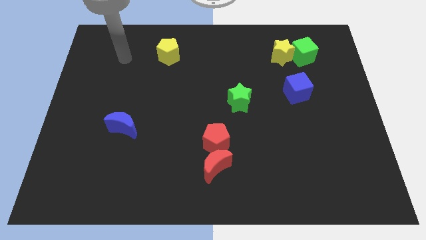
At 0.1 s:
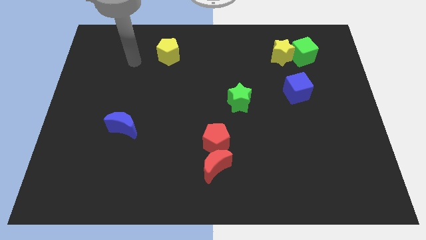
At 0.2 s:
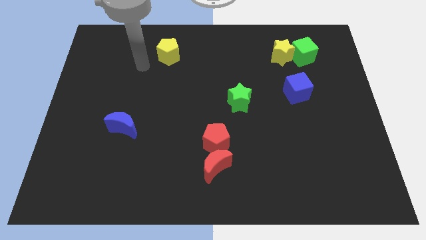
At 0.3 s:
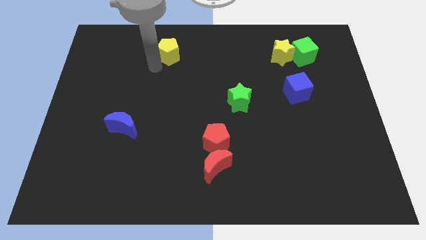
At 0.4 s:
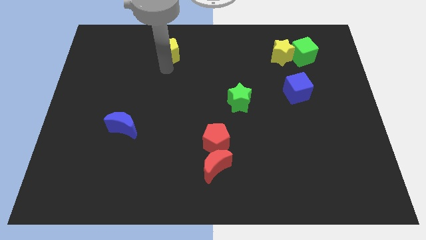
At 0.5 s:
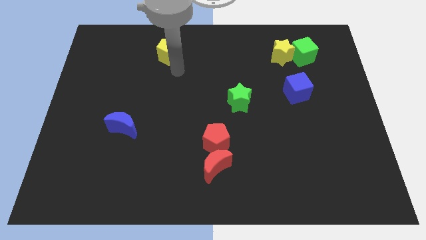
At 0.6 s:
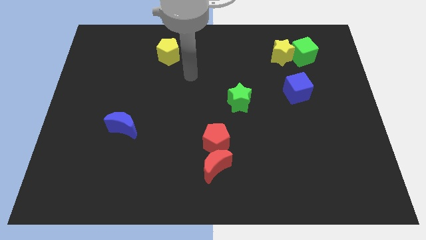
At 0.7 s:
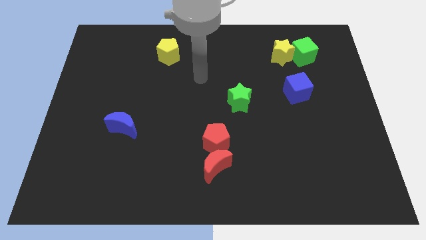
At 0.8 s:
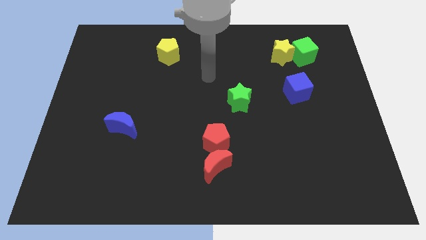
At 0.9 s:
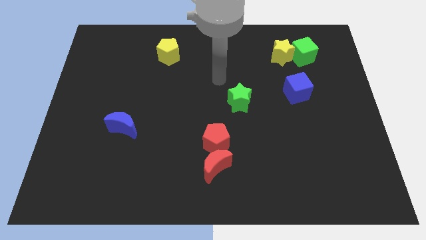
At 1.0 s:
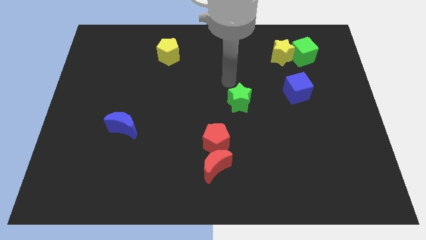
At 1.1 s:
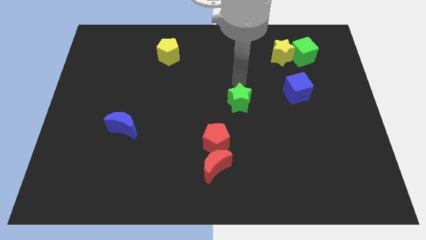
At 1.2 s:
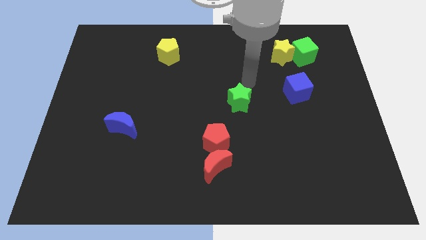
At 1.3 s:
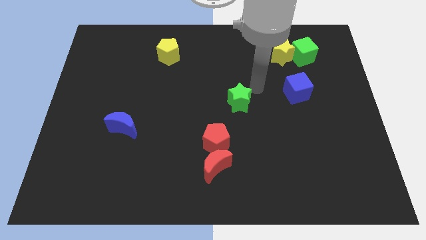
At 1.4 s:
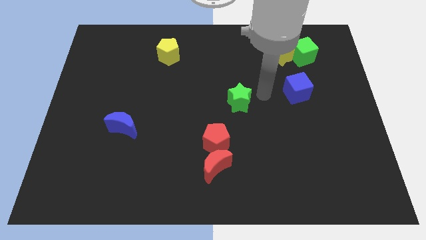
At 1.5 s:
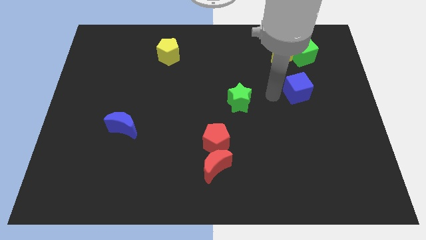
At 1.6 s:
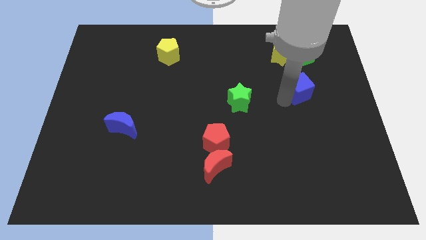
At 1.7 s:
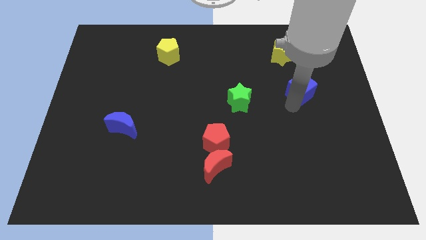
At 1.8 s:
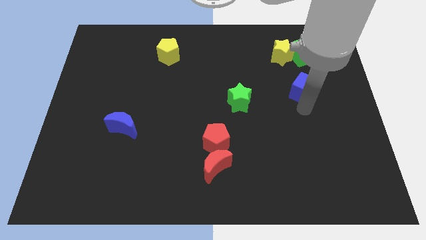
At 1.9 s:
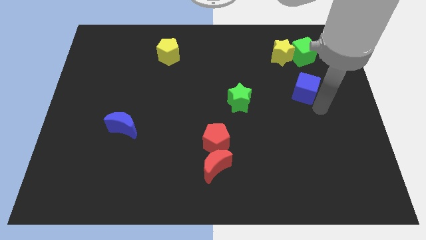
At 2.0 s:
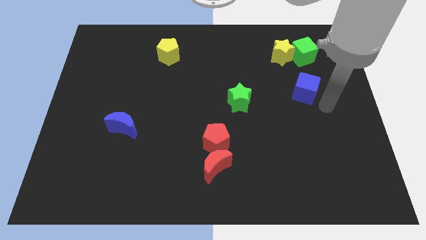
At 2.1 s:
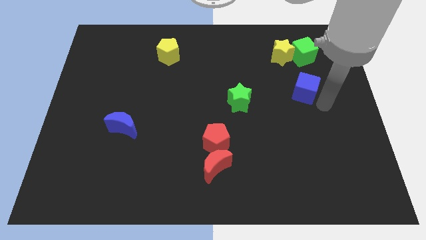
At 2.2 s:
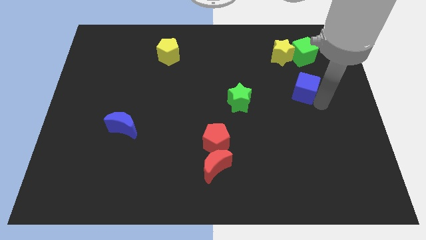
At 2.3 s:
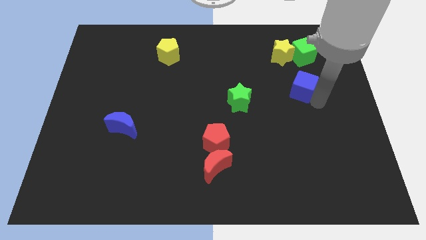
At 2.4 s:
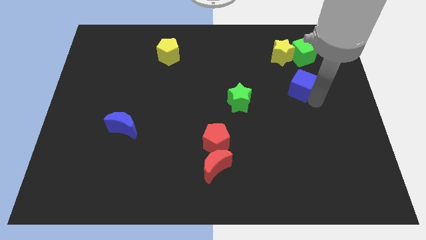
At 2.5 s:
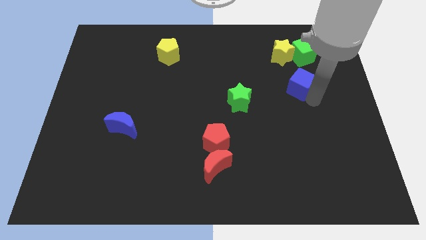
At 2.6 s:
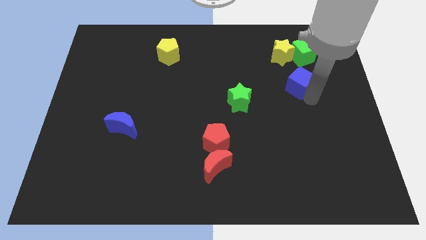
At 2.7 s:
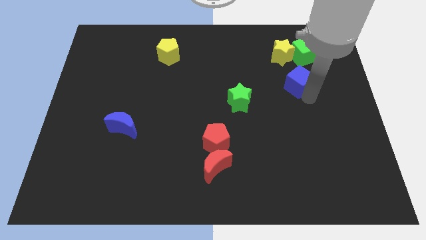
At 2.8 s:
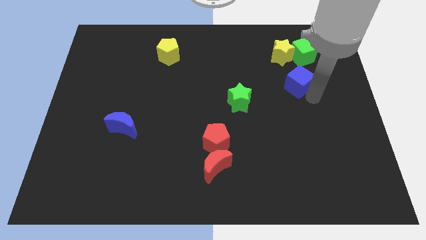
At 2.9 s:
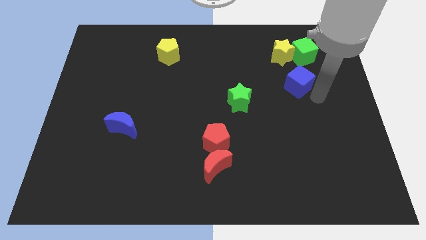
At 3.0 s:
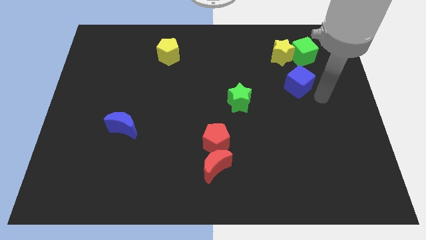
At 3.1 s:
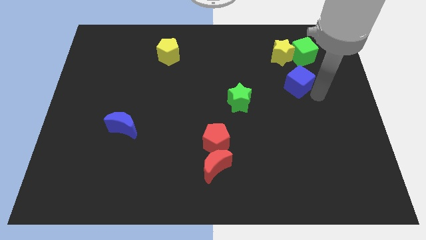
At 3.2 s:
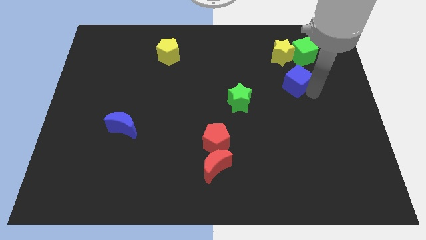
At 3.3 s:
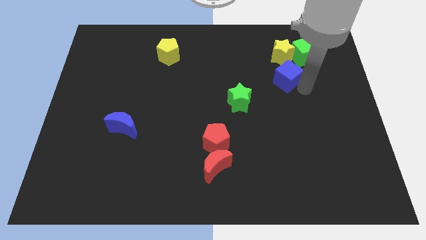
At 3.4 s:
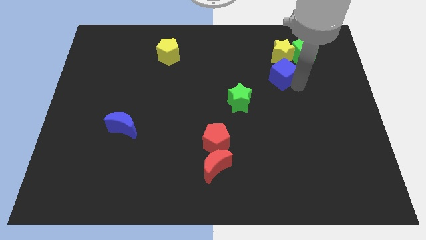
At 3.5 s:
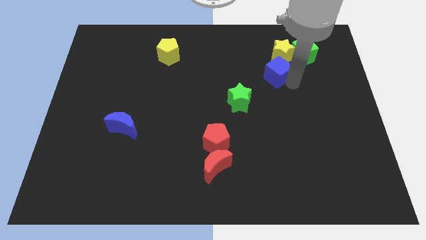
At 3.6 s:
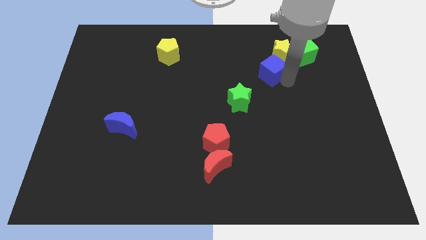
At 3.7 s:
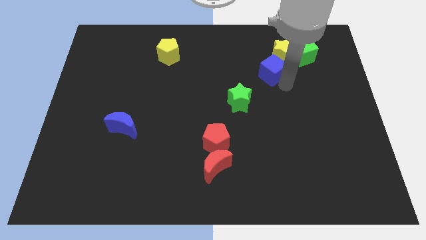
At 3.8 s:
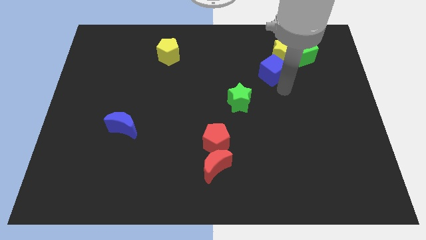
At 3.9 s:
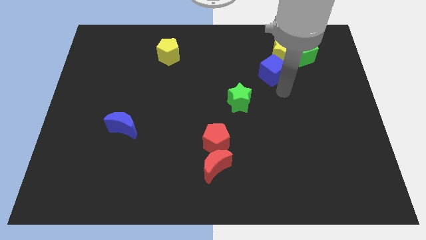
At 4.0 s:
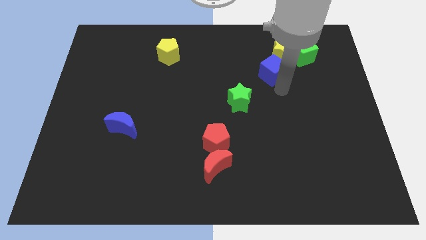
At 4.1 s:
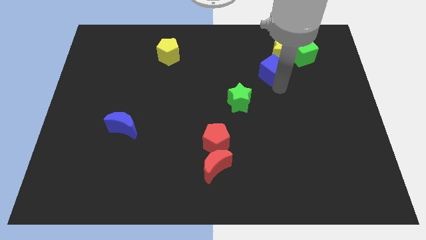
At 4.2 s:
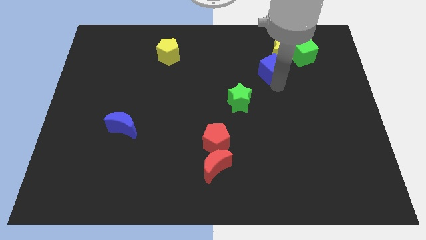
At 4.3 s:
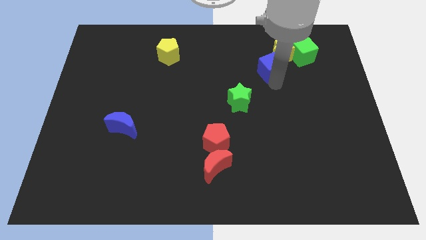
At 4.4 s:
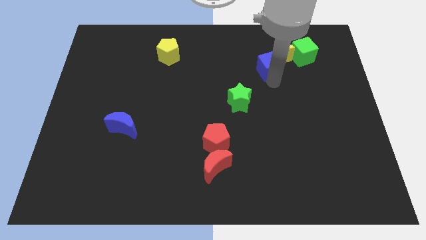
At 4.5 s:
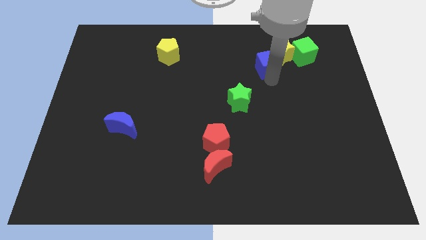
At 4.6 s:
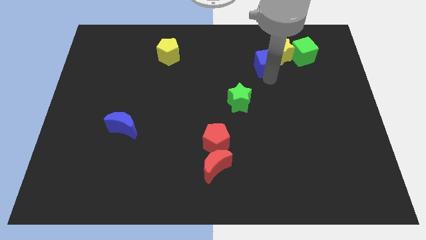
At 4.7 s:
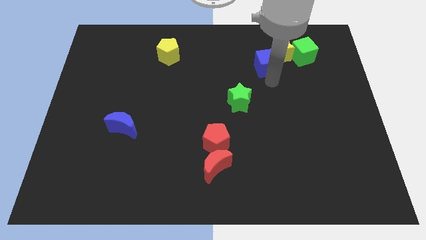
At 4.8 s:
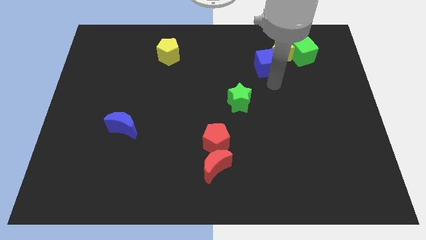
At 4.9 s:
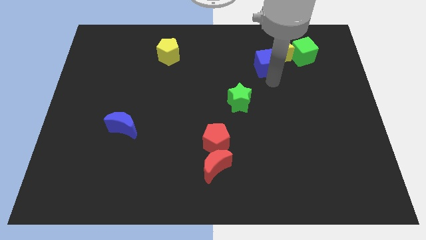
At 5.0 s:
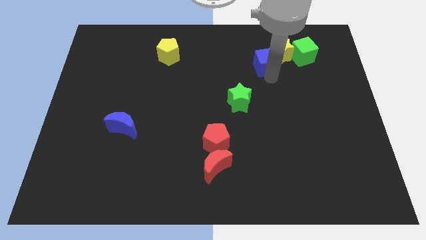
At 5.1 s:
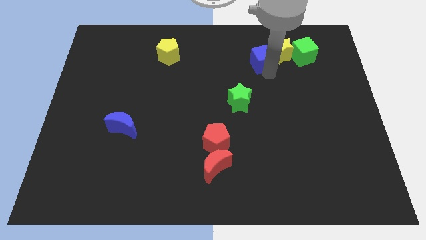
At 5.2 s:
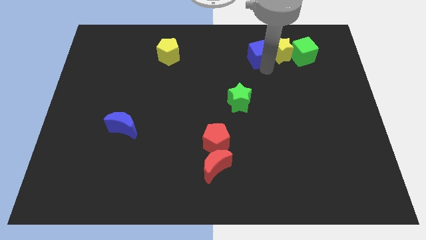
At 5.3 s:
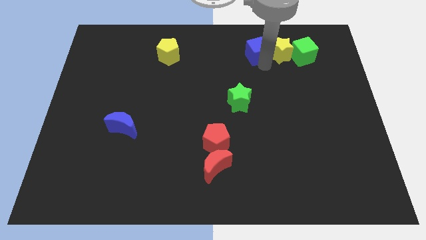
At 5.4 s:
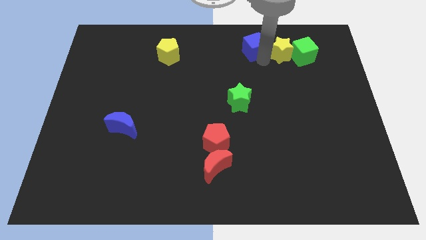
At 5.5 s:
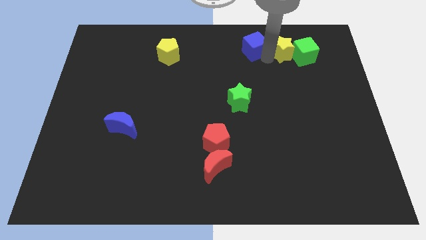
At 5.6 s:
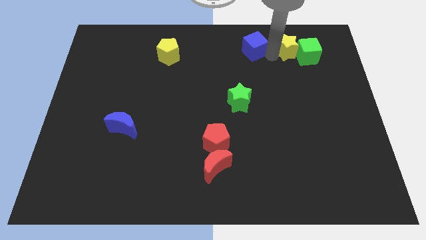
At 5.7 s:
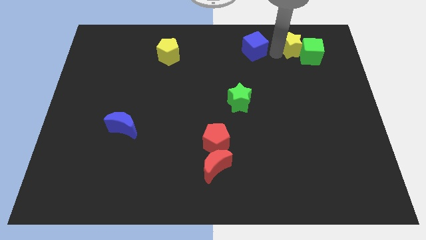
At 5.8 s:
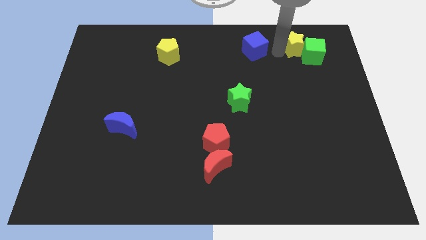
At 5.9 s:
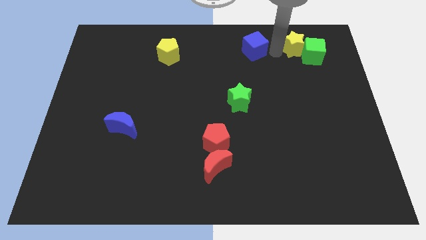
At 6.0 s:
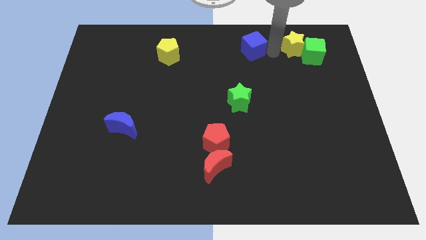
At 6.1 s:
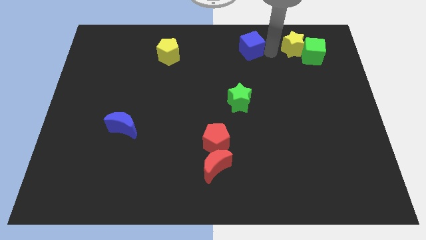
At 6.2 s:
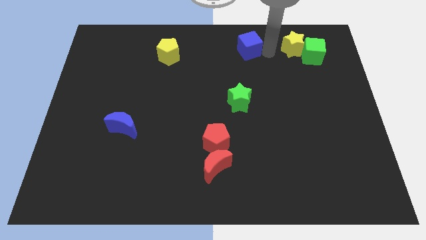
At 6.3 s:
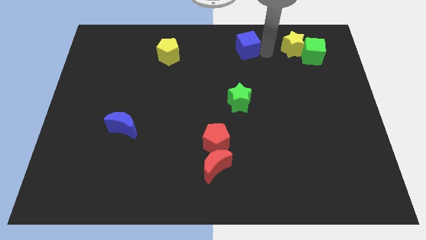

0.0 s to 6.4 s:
push the blue cube to the towards your base

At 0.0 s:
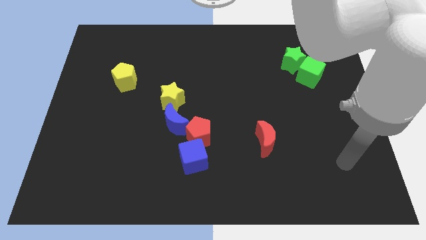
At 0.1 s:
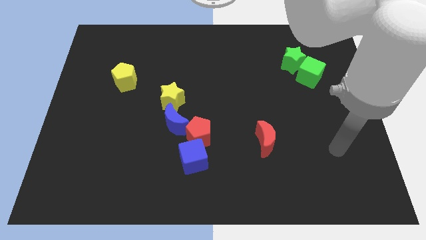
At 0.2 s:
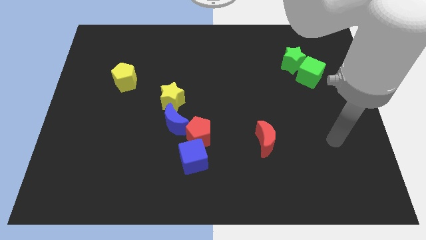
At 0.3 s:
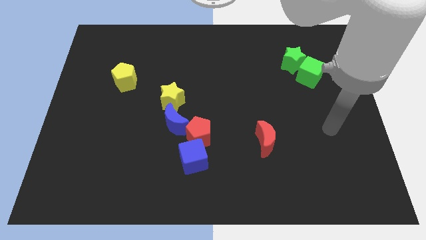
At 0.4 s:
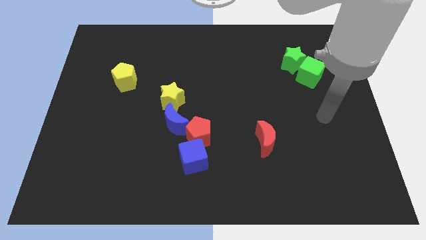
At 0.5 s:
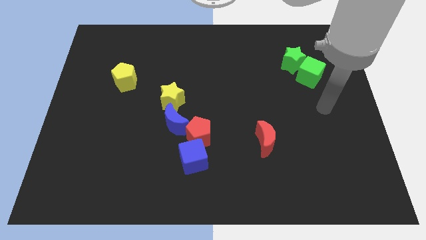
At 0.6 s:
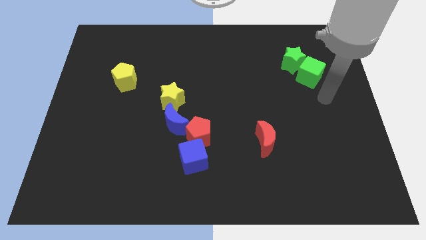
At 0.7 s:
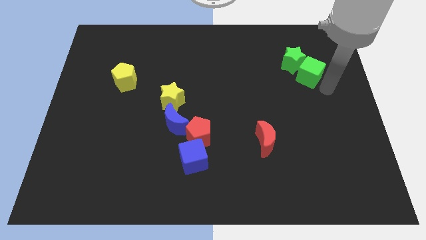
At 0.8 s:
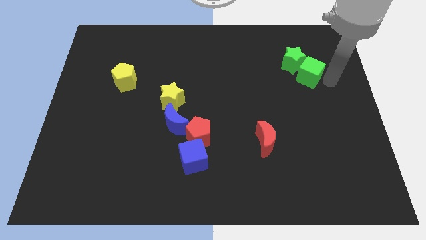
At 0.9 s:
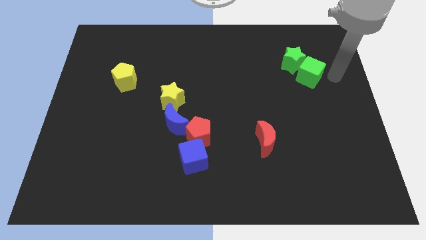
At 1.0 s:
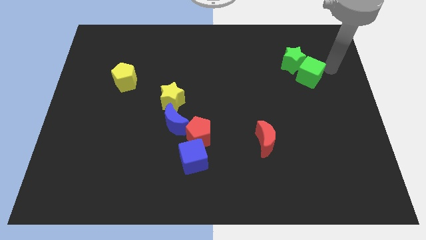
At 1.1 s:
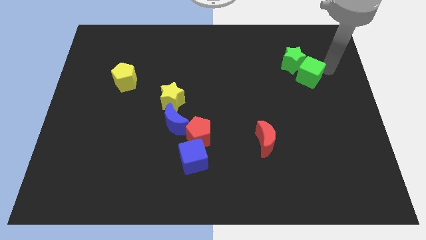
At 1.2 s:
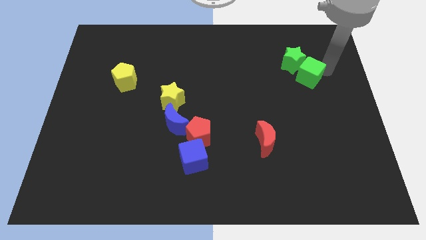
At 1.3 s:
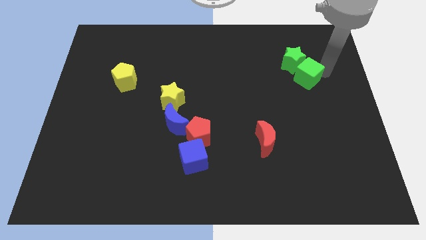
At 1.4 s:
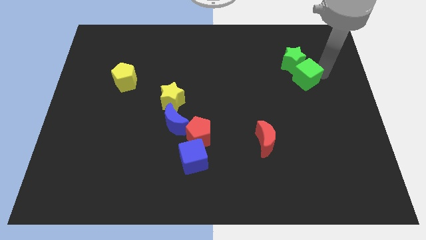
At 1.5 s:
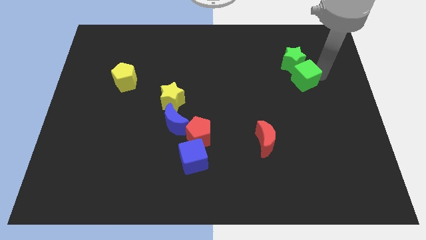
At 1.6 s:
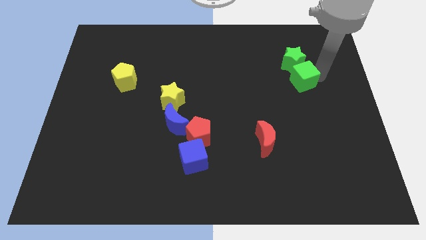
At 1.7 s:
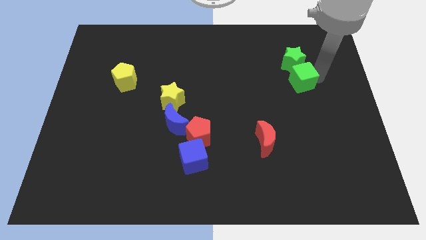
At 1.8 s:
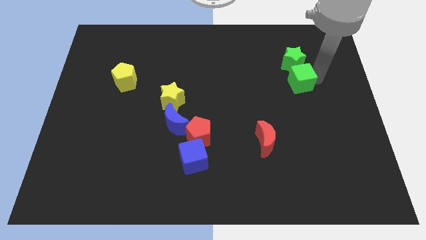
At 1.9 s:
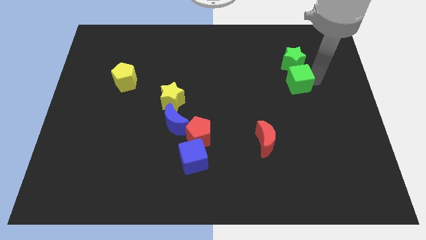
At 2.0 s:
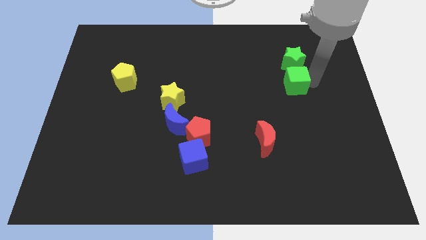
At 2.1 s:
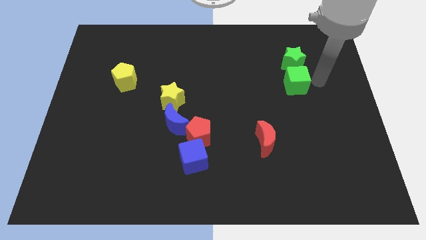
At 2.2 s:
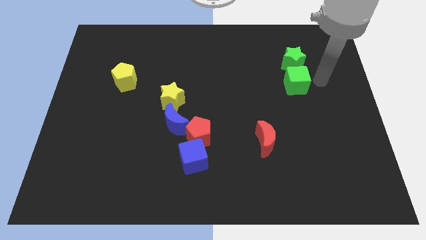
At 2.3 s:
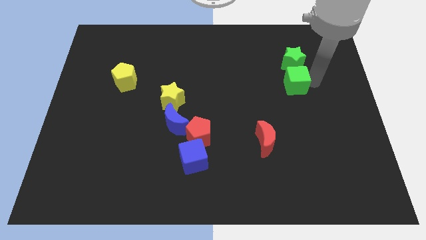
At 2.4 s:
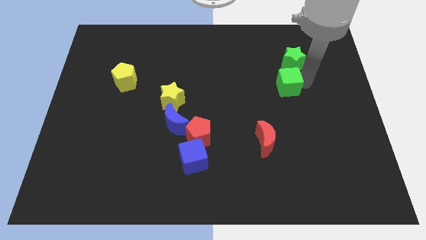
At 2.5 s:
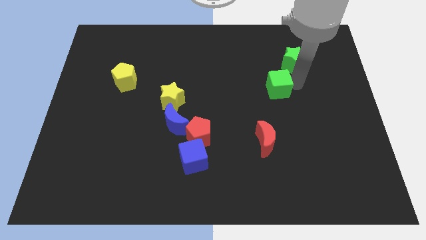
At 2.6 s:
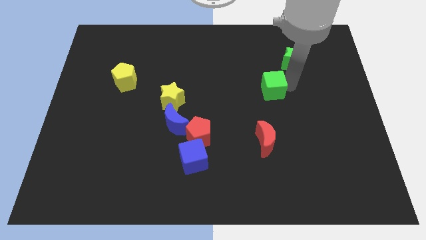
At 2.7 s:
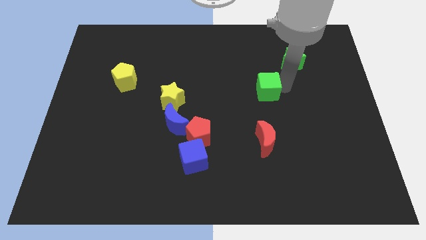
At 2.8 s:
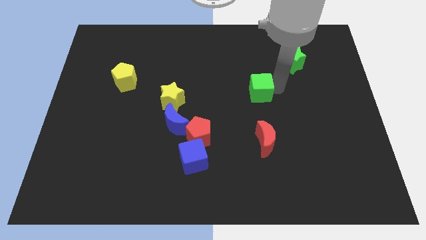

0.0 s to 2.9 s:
move the green cube to the middle
